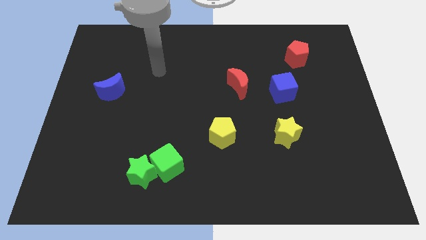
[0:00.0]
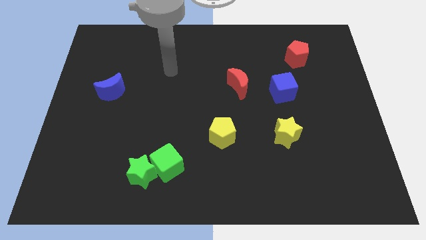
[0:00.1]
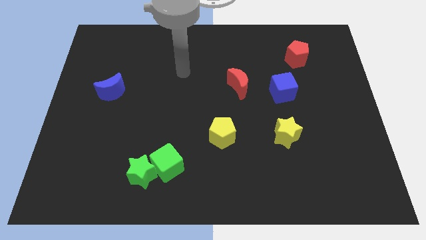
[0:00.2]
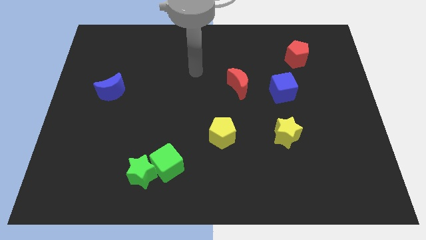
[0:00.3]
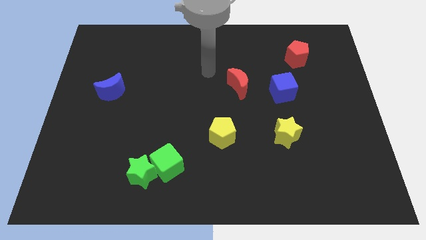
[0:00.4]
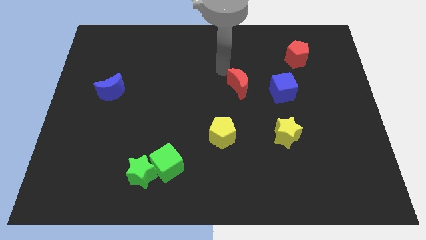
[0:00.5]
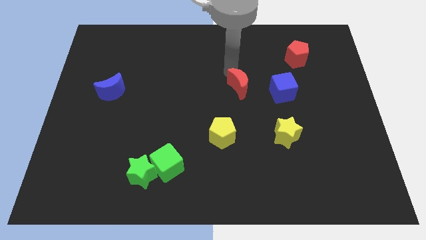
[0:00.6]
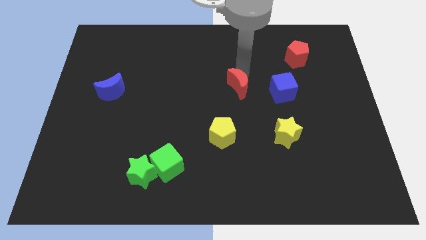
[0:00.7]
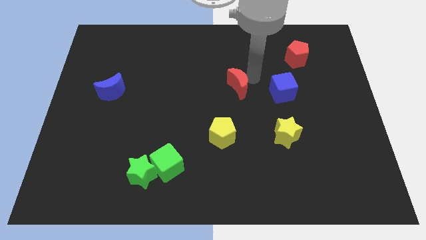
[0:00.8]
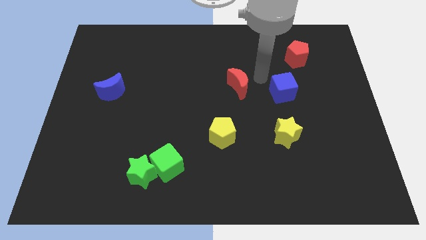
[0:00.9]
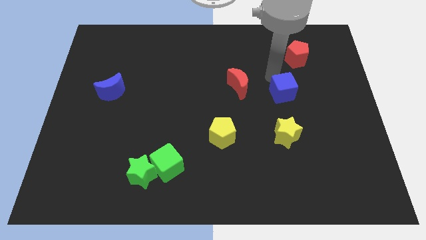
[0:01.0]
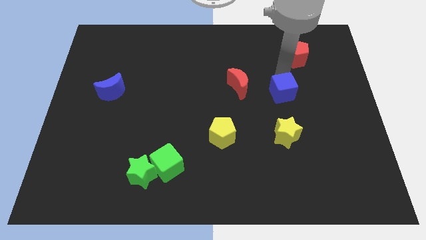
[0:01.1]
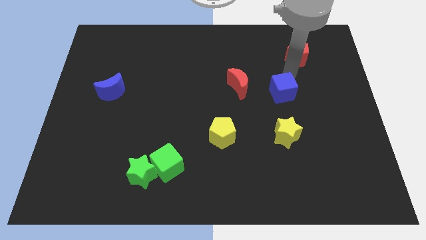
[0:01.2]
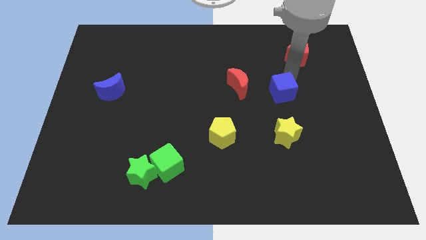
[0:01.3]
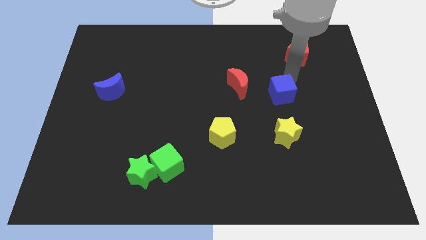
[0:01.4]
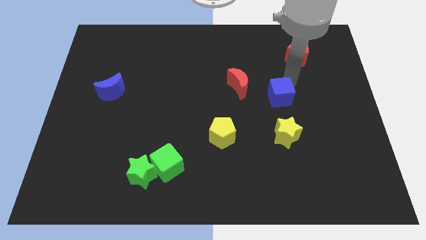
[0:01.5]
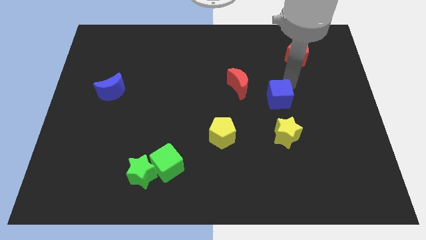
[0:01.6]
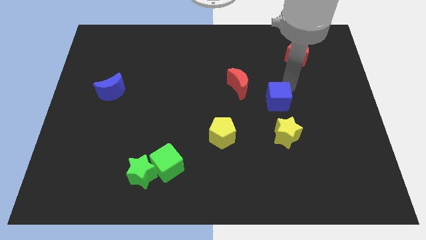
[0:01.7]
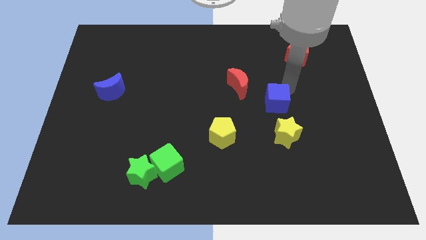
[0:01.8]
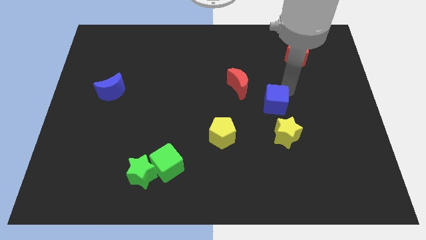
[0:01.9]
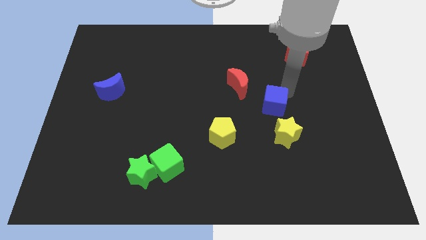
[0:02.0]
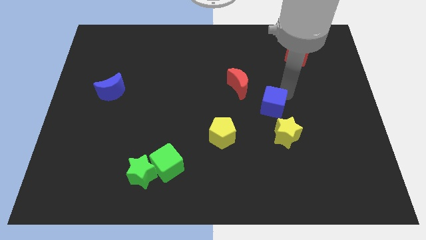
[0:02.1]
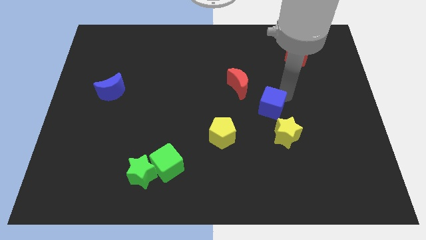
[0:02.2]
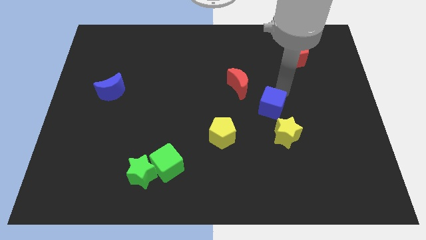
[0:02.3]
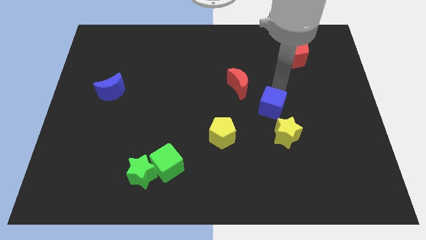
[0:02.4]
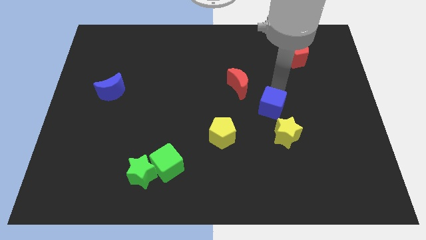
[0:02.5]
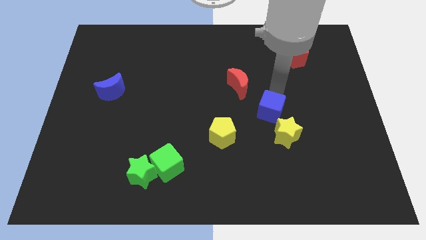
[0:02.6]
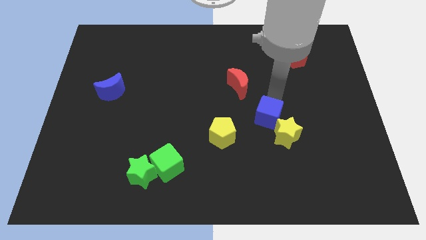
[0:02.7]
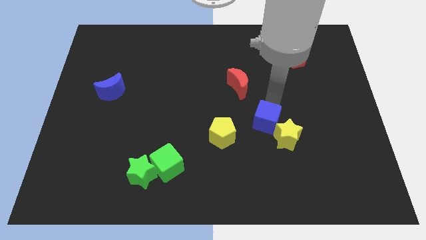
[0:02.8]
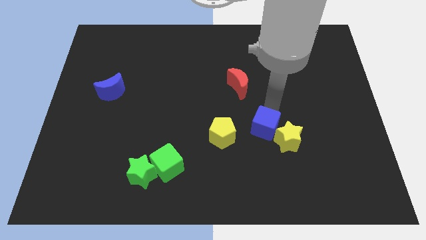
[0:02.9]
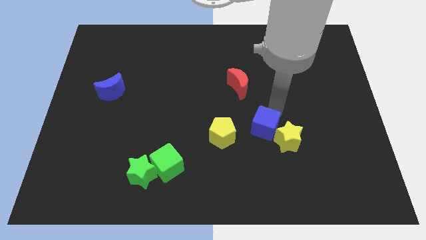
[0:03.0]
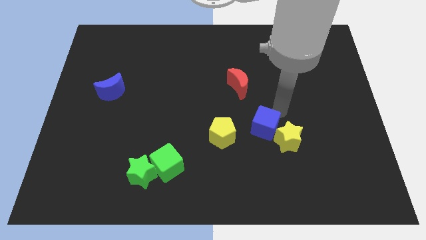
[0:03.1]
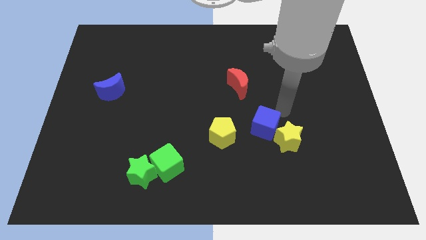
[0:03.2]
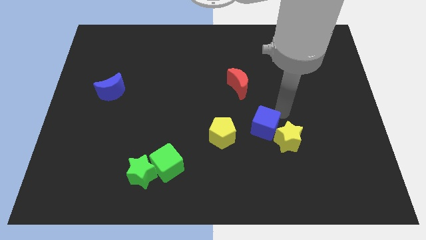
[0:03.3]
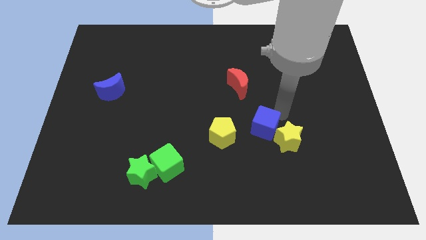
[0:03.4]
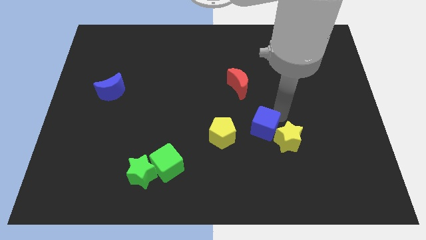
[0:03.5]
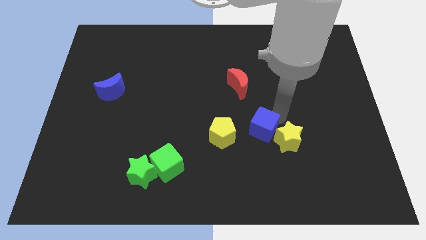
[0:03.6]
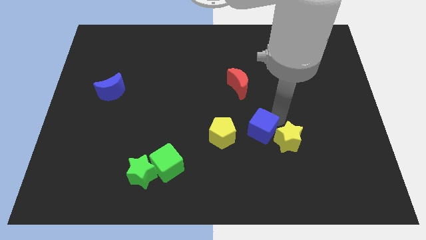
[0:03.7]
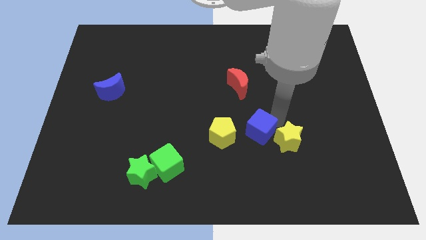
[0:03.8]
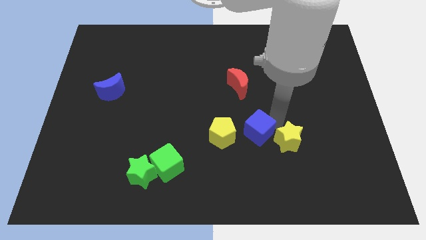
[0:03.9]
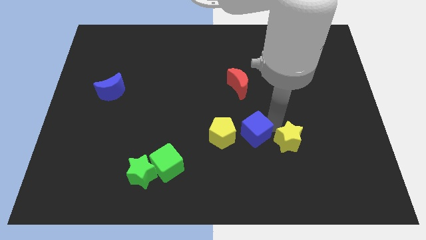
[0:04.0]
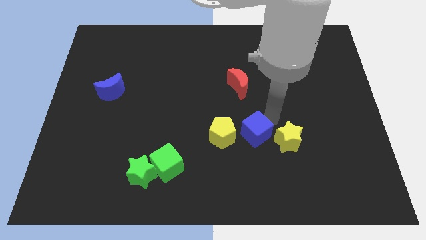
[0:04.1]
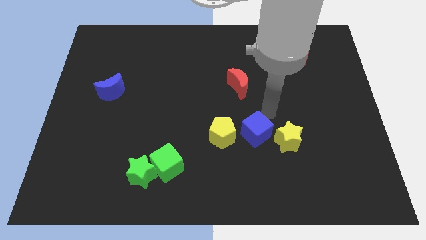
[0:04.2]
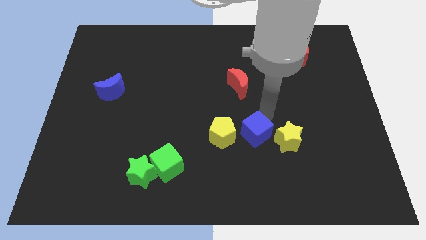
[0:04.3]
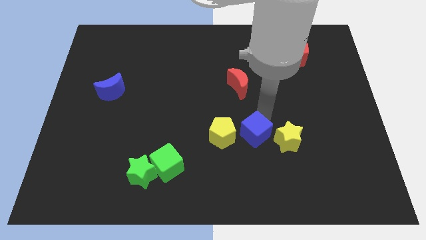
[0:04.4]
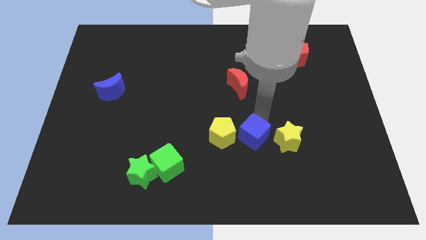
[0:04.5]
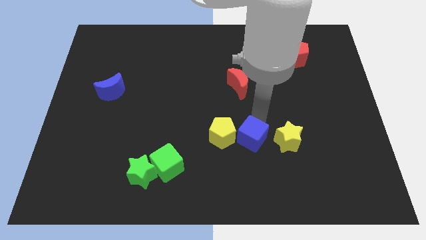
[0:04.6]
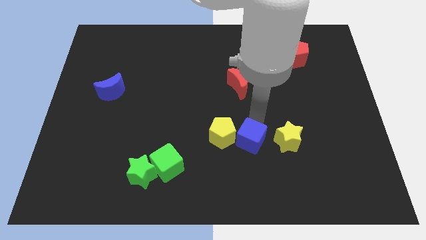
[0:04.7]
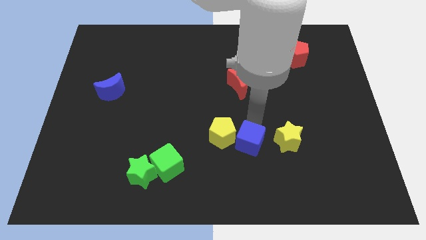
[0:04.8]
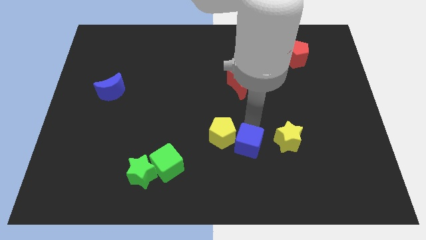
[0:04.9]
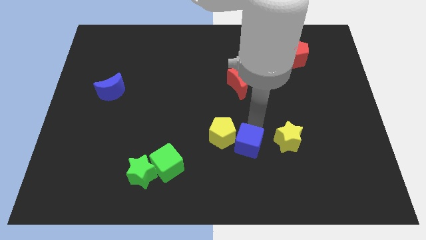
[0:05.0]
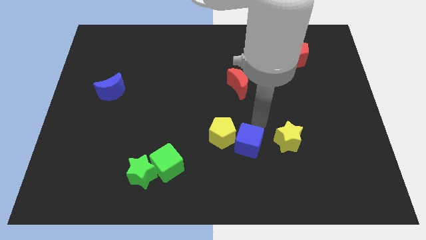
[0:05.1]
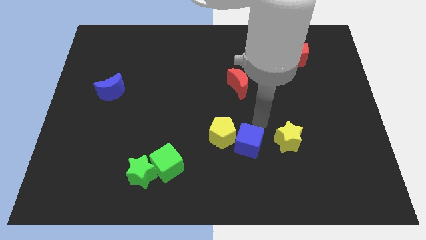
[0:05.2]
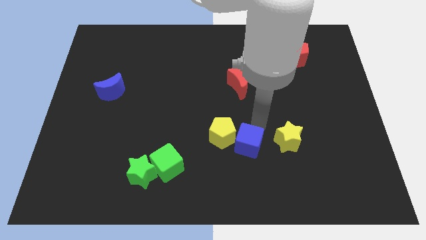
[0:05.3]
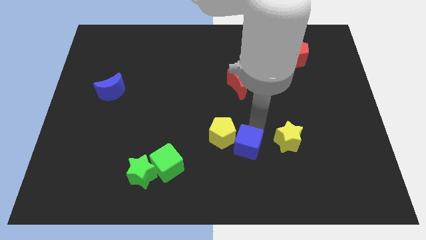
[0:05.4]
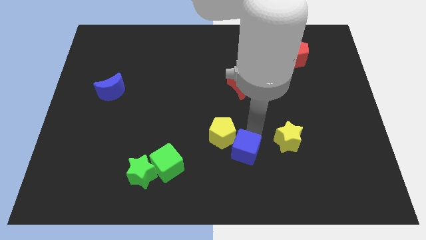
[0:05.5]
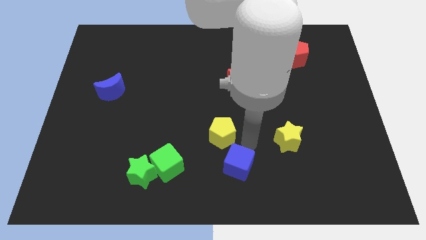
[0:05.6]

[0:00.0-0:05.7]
move the blue cube to the bottom
